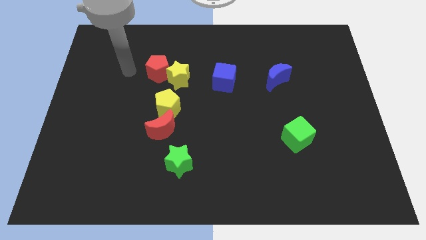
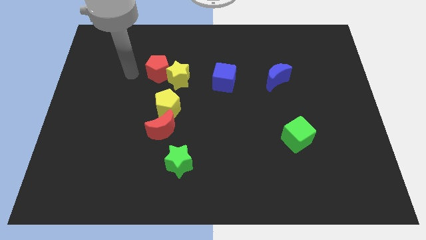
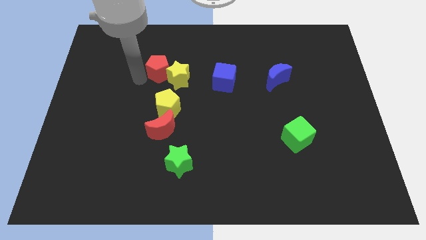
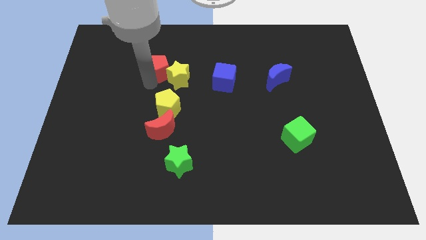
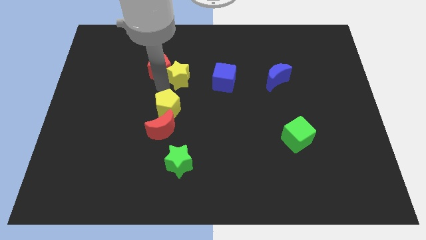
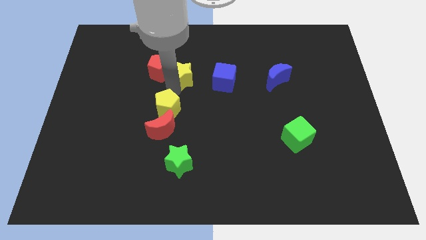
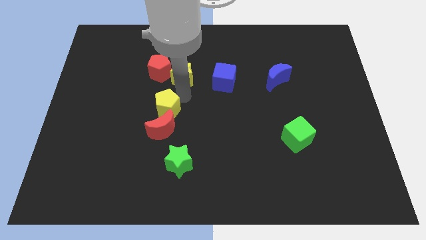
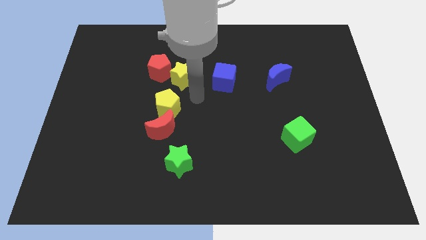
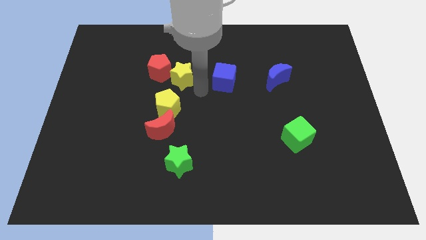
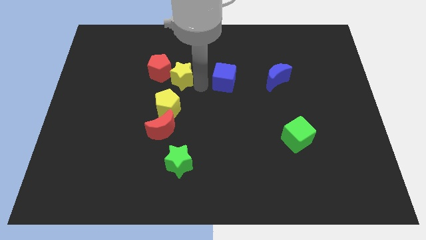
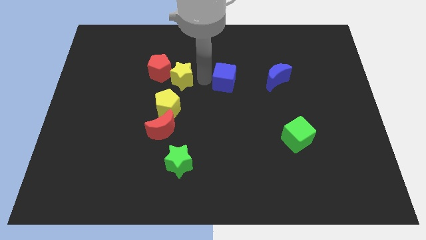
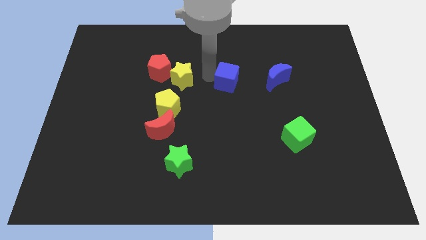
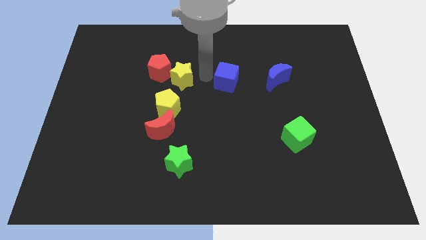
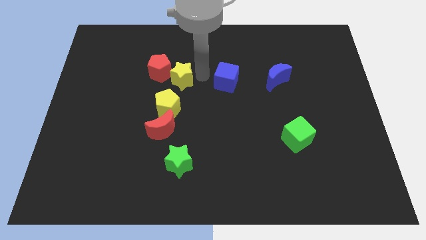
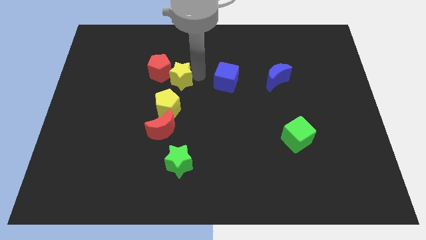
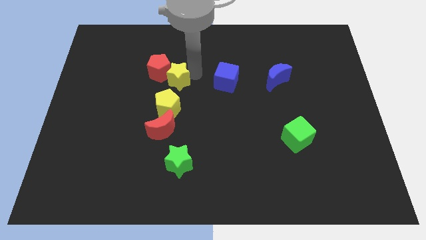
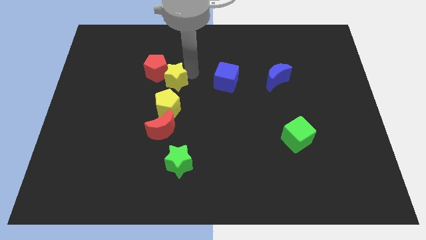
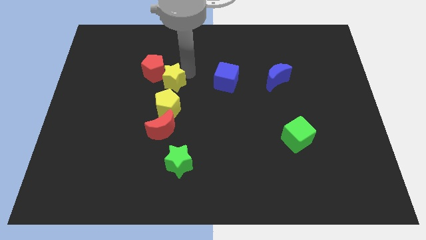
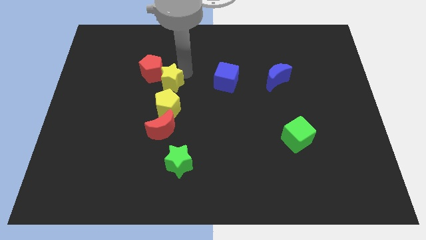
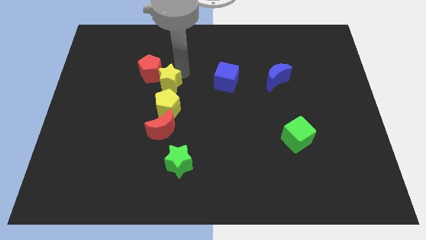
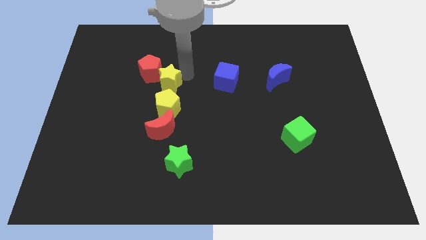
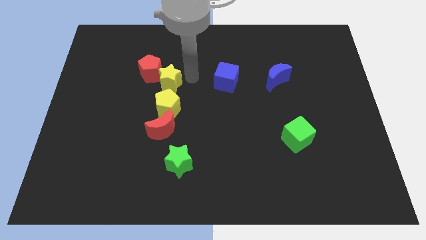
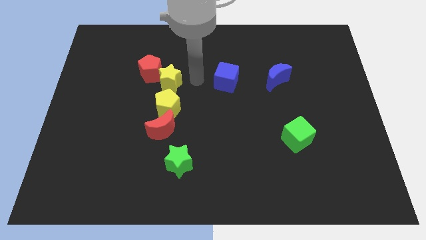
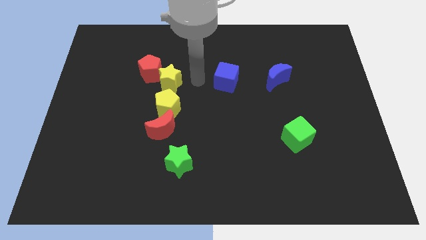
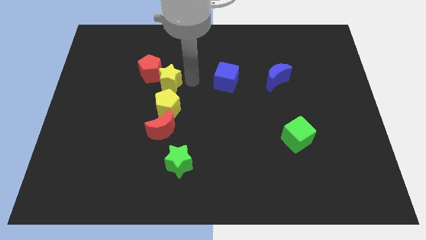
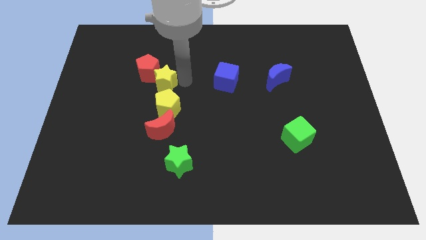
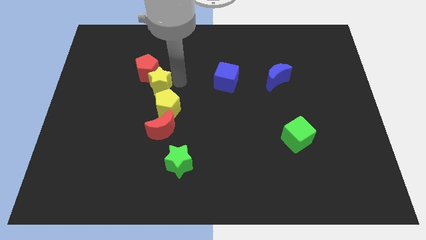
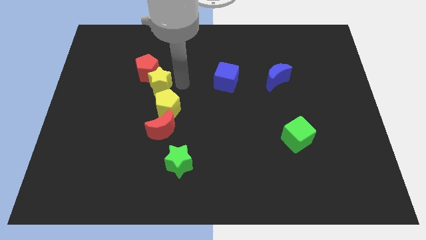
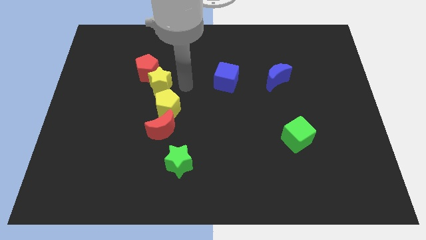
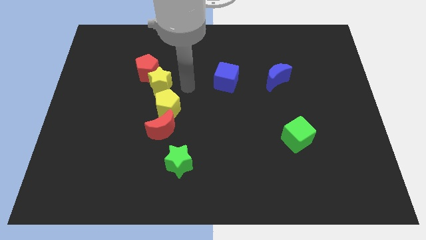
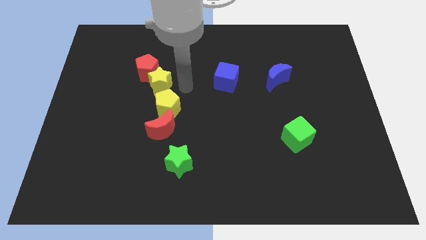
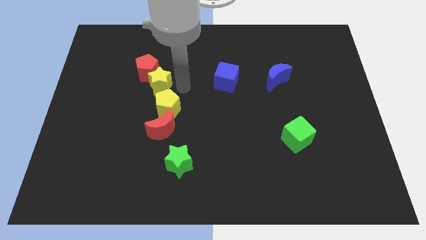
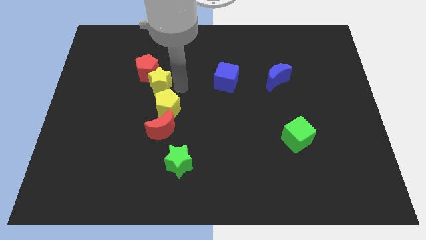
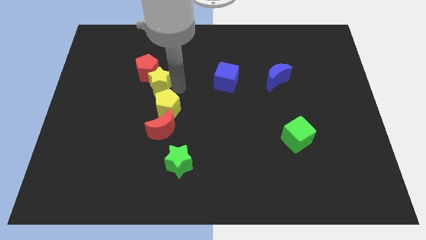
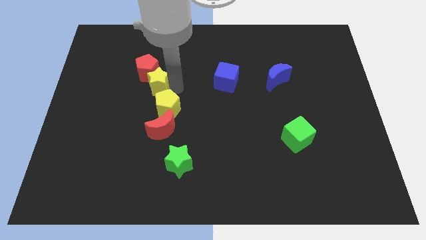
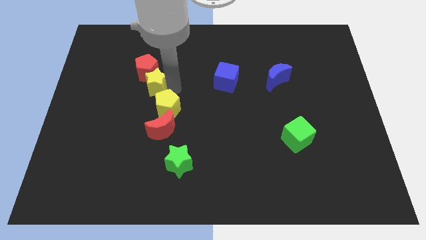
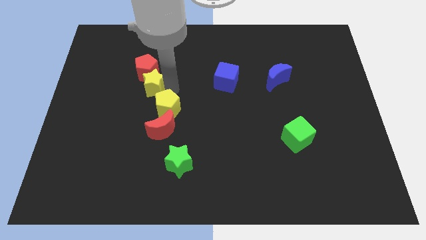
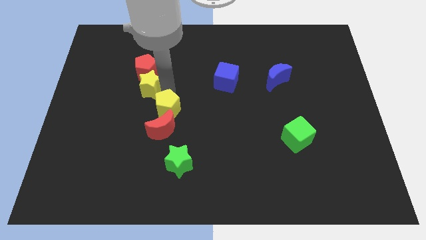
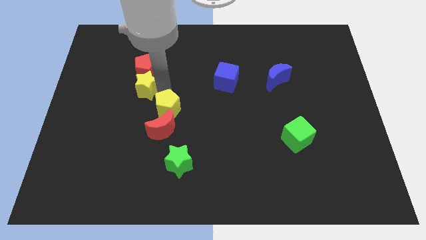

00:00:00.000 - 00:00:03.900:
push the yellow star a little left

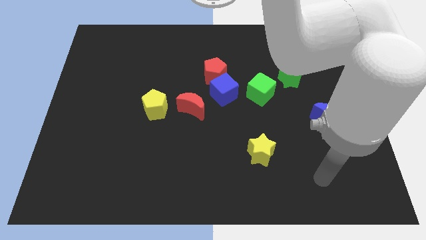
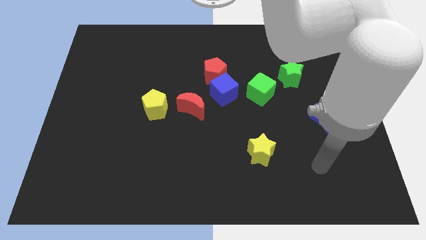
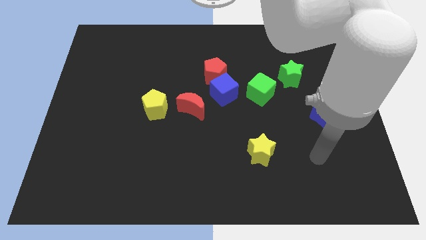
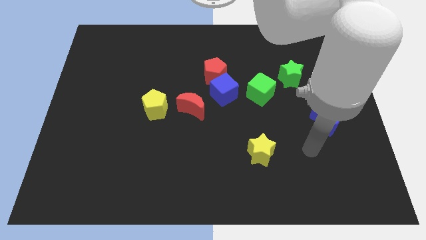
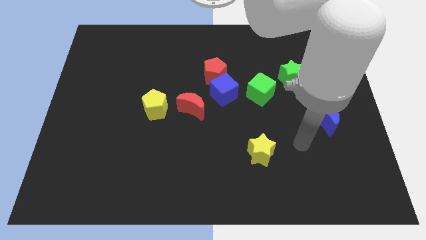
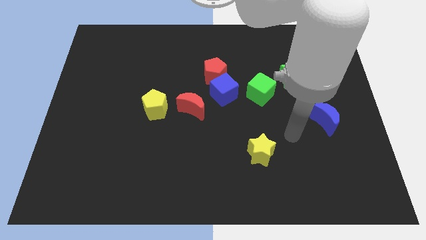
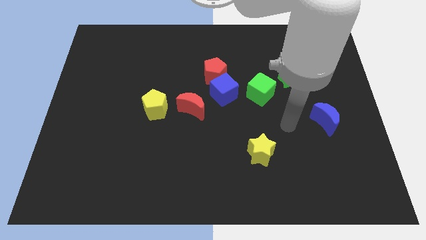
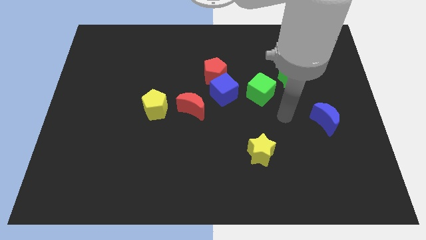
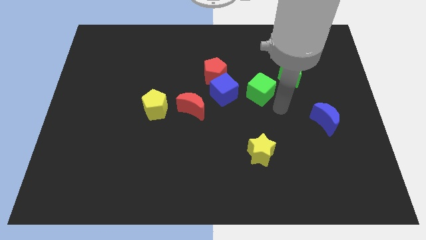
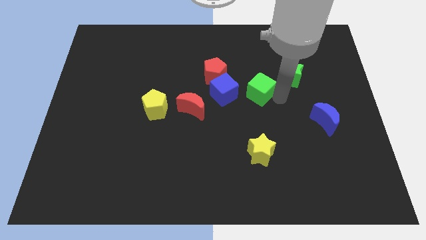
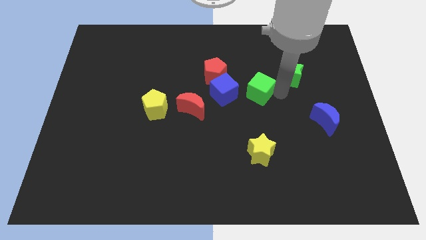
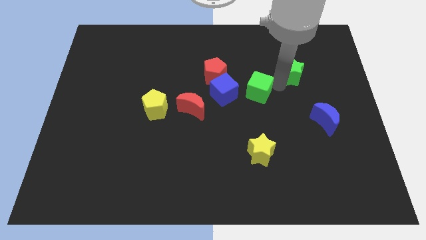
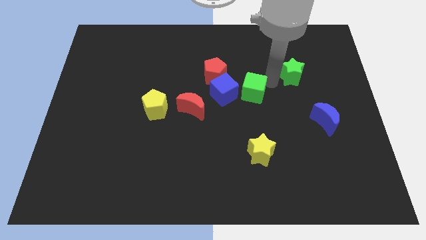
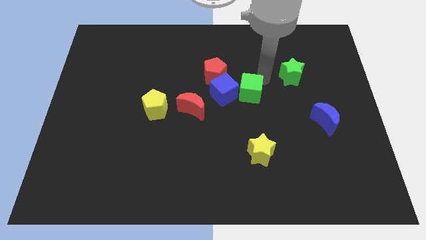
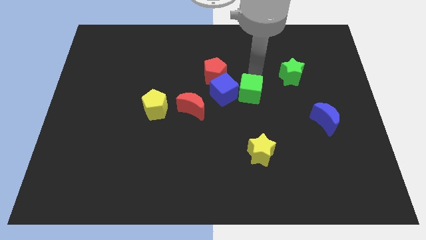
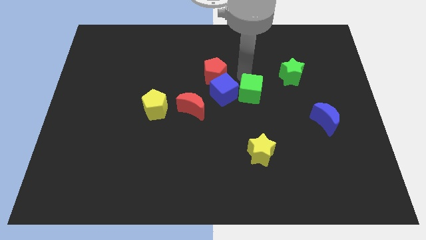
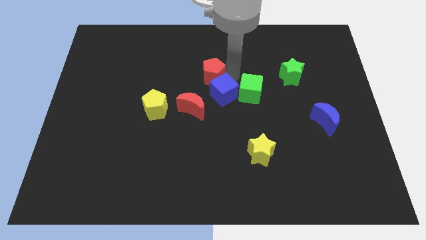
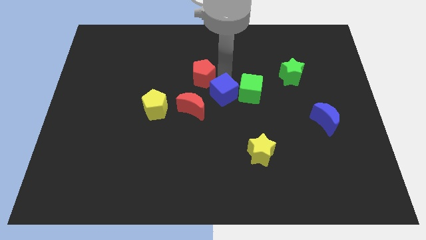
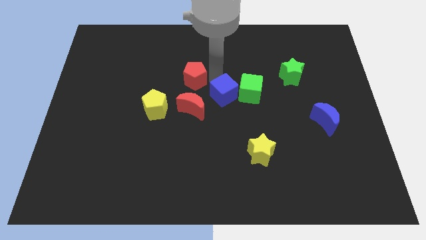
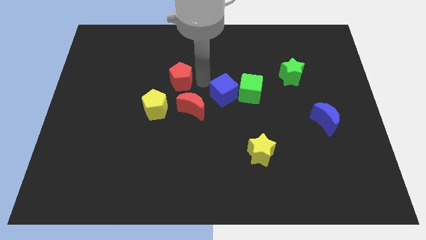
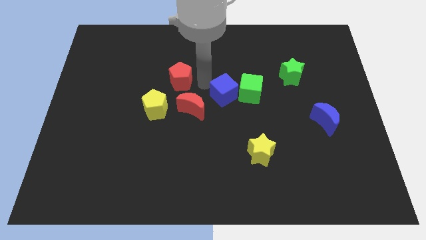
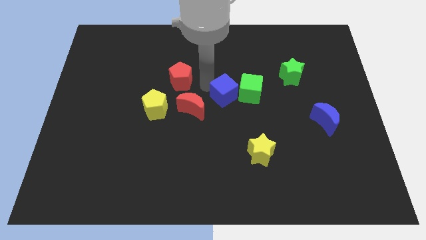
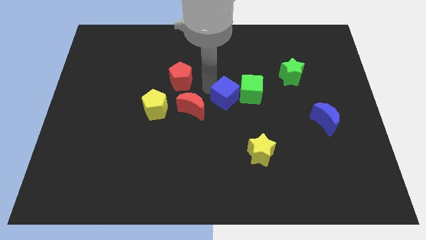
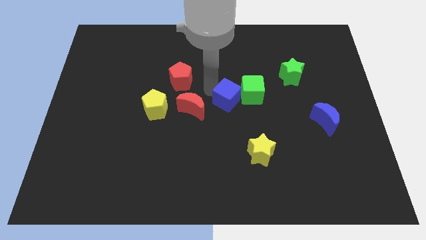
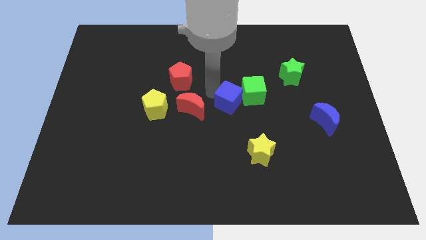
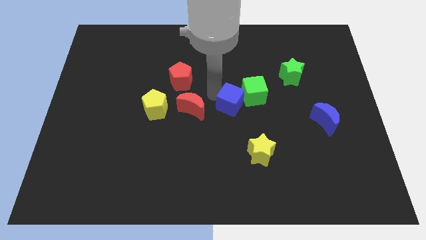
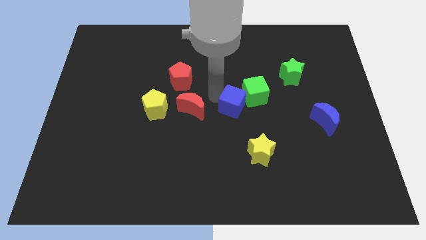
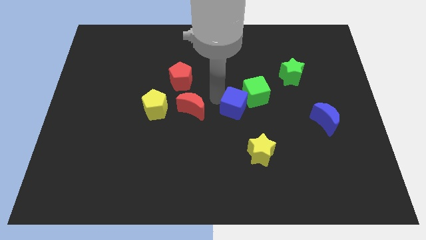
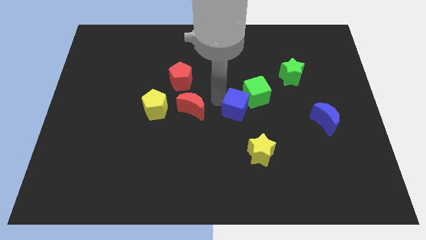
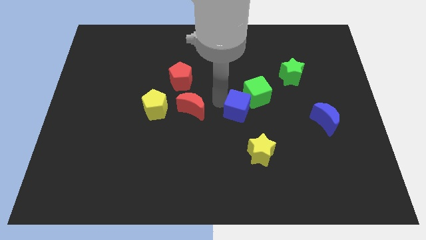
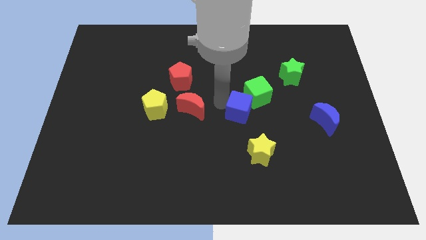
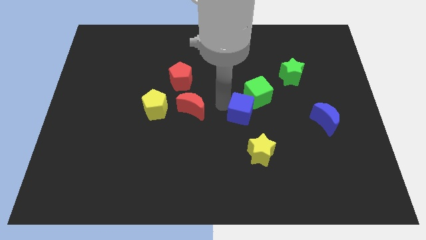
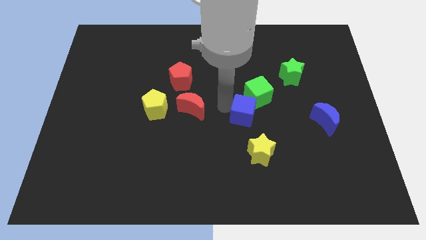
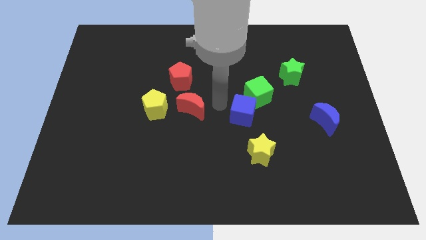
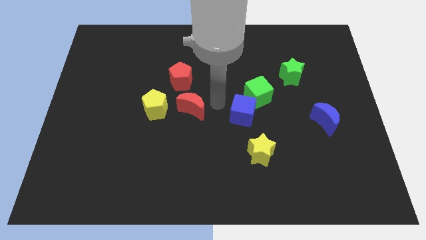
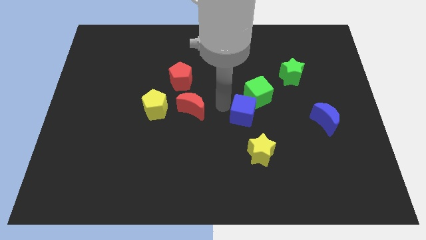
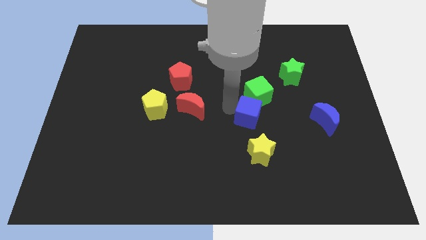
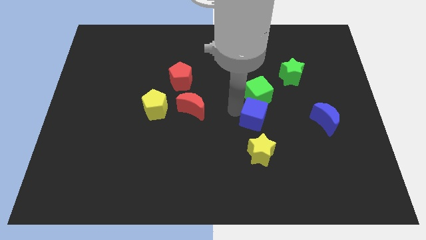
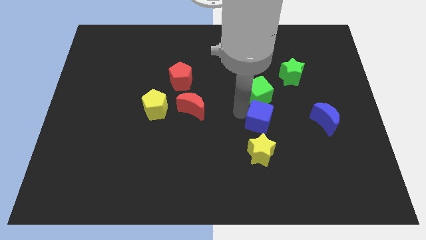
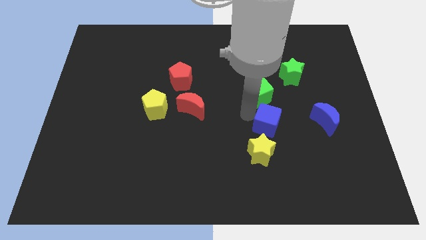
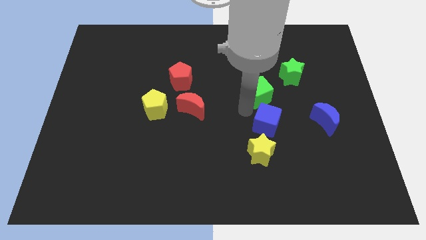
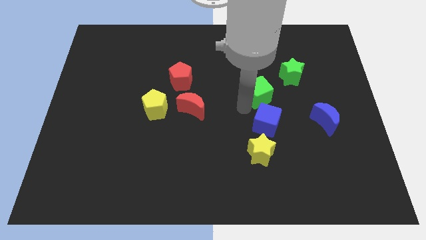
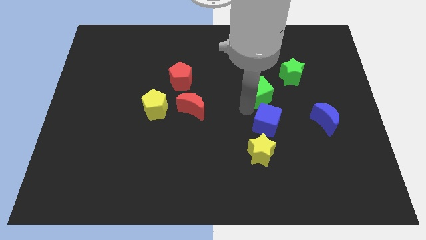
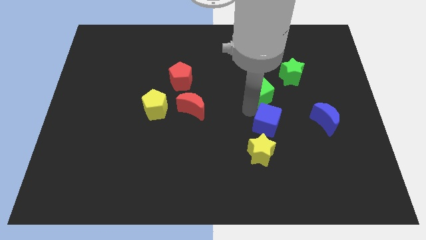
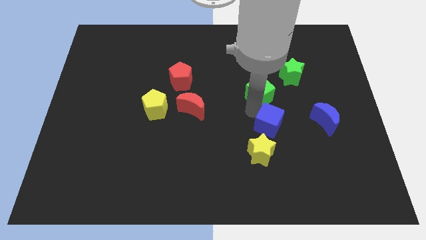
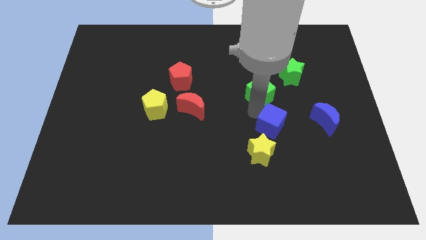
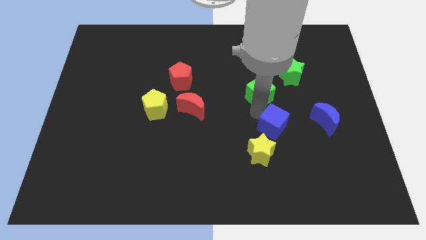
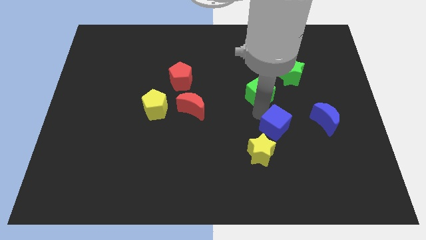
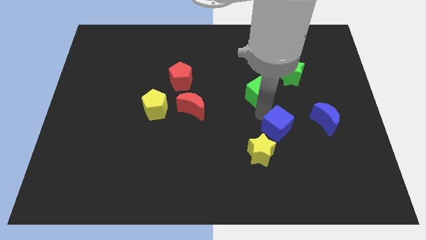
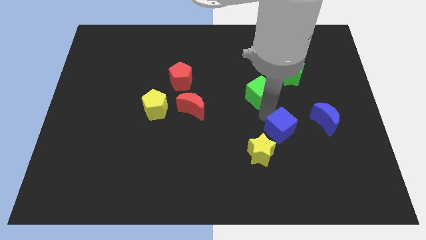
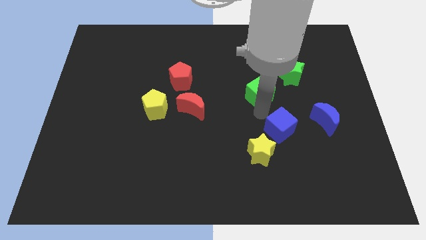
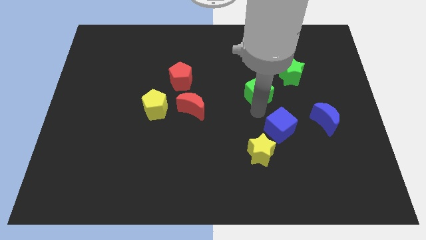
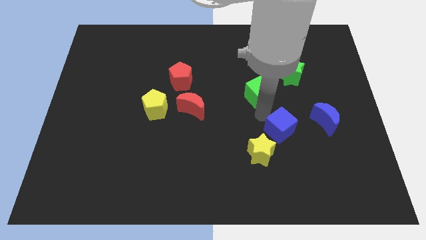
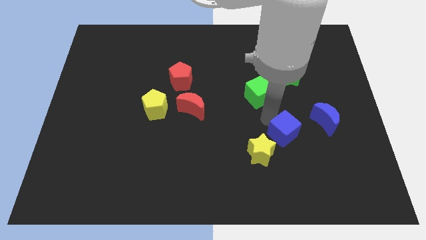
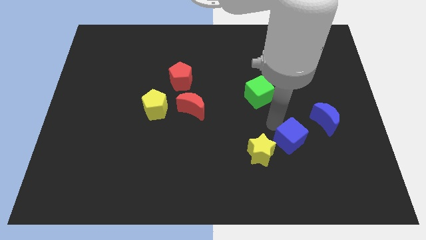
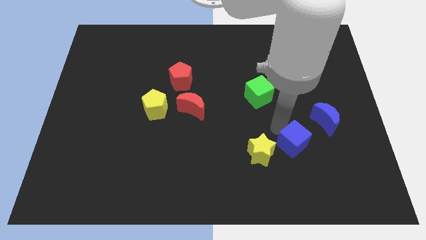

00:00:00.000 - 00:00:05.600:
push the blue cube diagonally down and right
